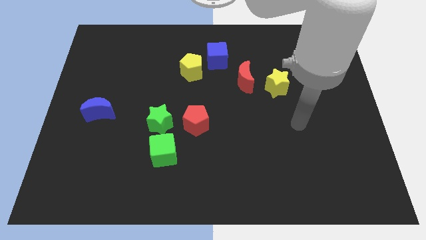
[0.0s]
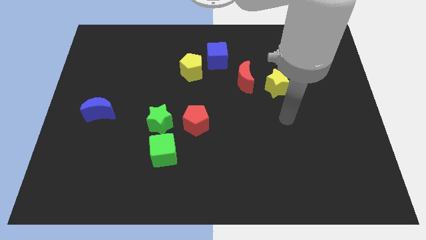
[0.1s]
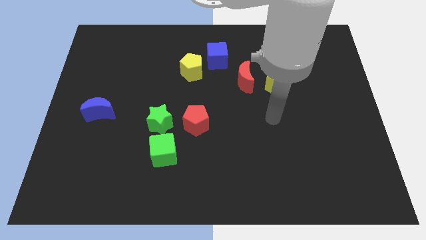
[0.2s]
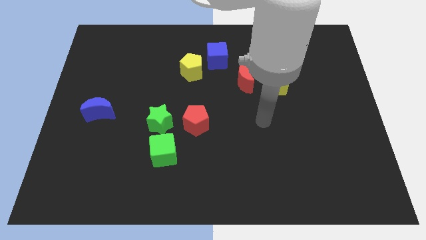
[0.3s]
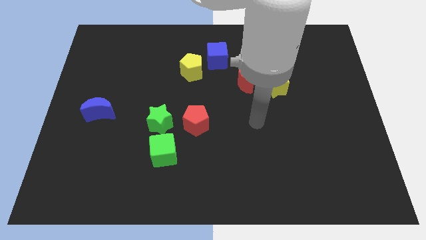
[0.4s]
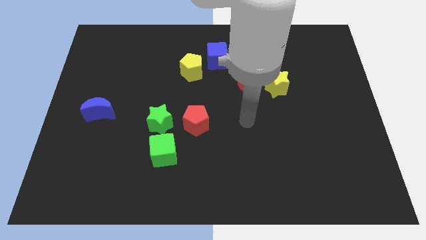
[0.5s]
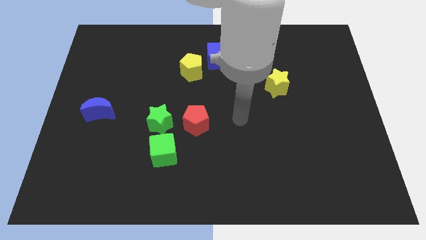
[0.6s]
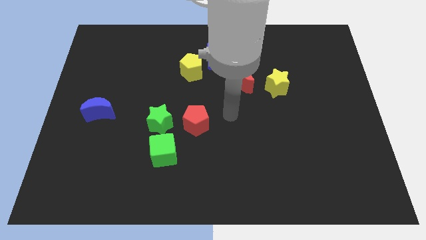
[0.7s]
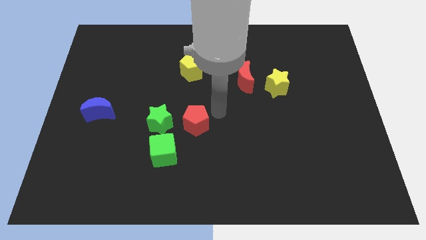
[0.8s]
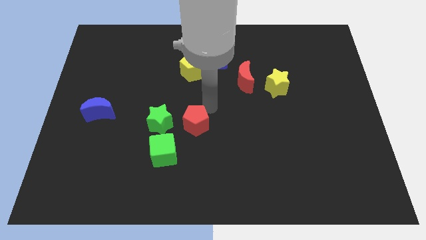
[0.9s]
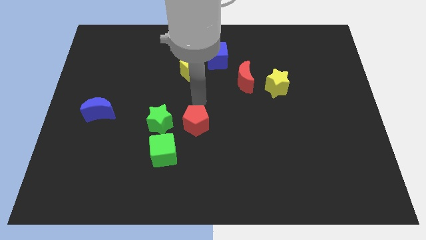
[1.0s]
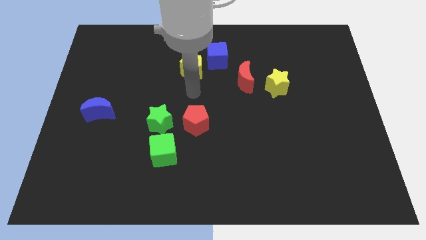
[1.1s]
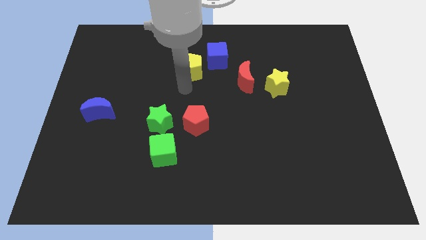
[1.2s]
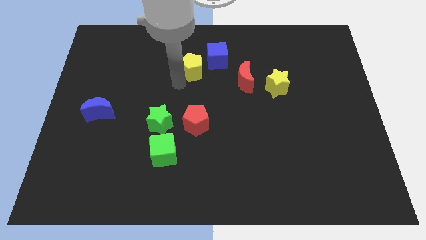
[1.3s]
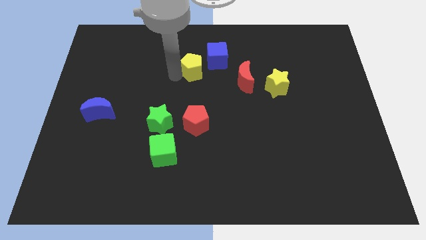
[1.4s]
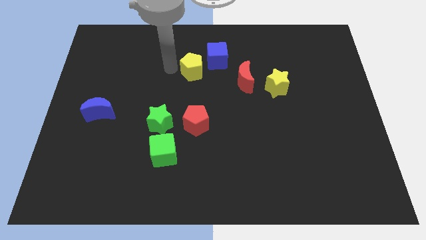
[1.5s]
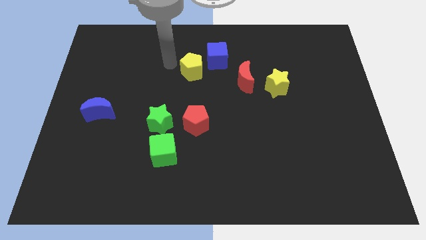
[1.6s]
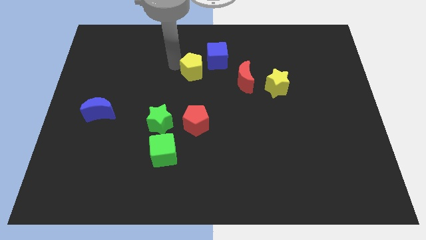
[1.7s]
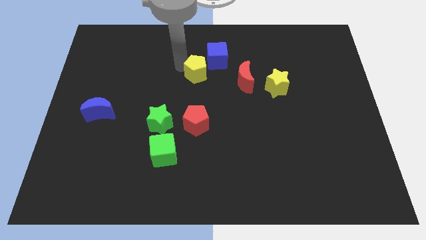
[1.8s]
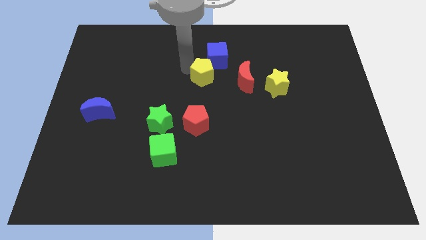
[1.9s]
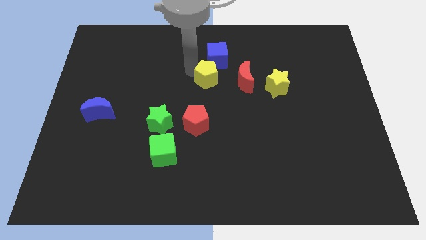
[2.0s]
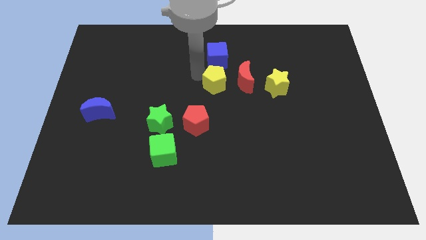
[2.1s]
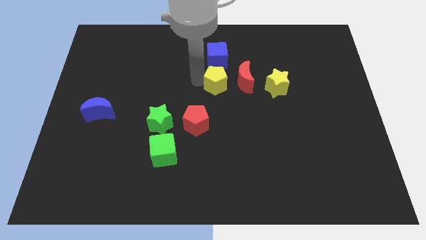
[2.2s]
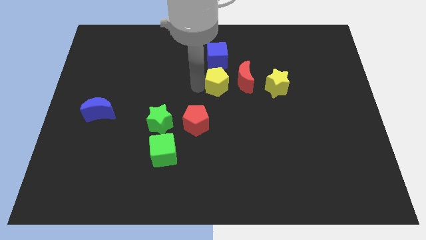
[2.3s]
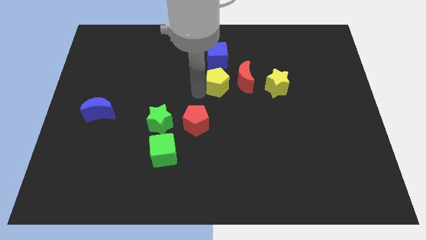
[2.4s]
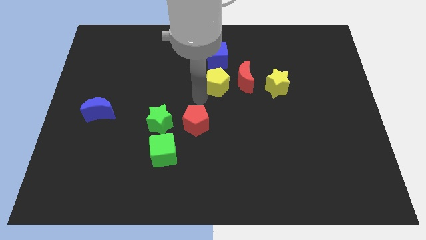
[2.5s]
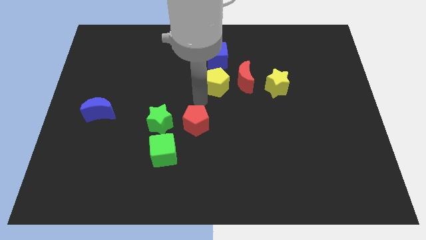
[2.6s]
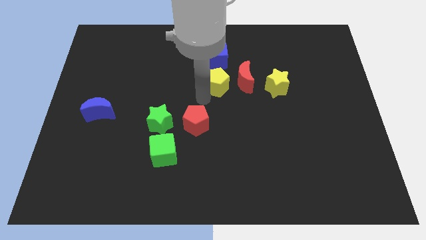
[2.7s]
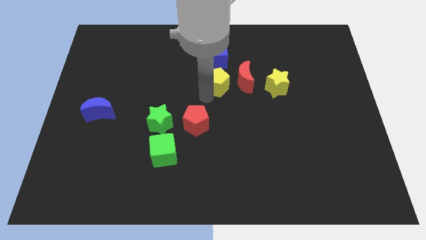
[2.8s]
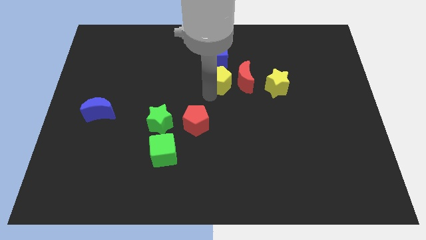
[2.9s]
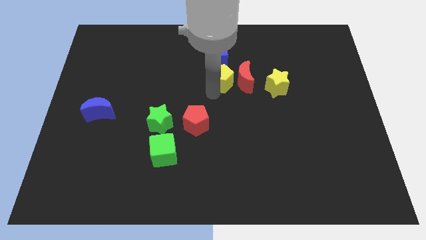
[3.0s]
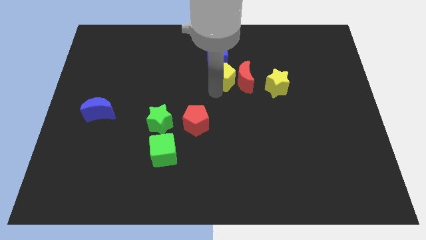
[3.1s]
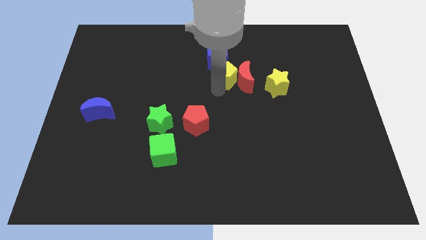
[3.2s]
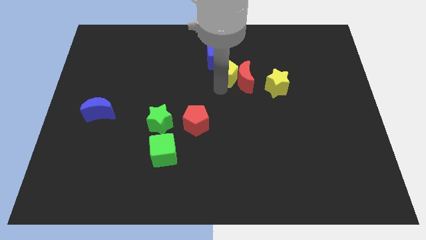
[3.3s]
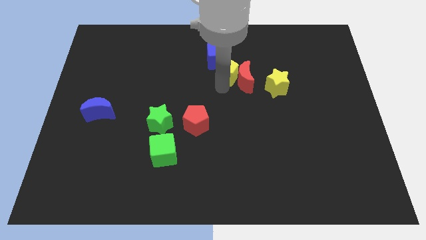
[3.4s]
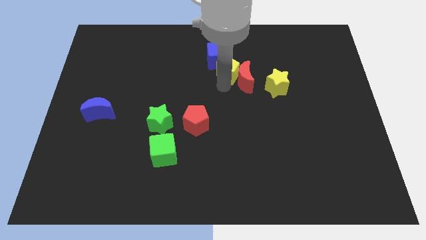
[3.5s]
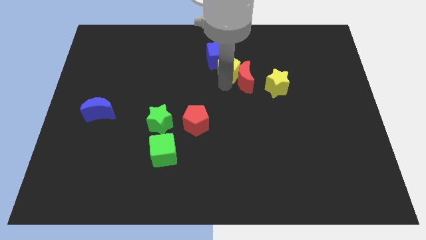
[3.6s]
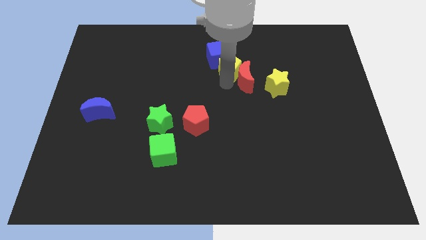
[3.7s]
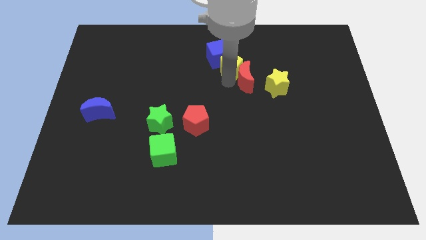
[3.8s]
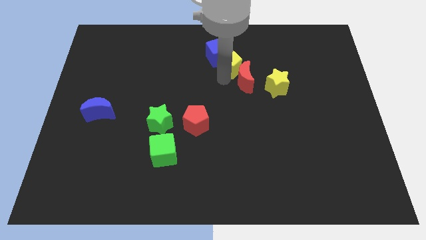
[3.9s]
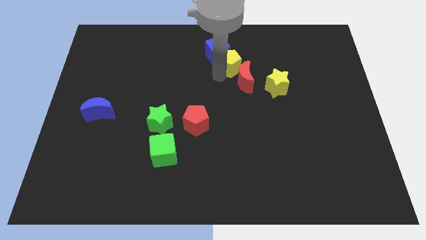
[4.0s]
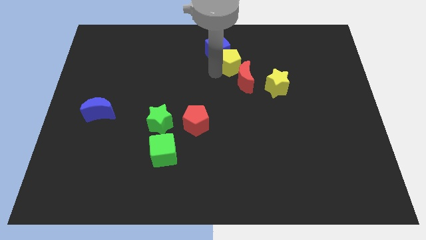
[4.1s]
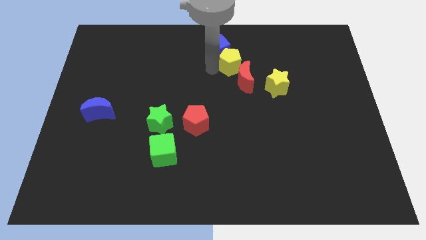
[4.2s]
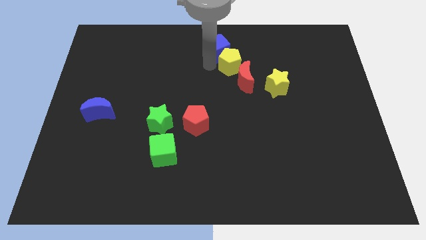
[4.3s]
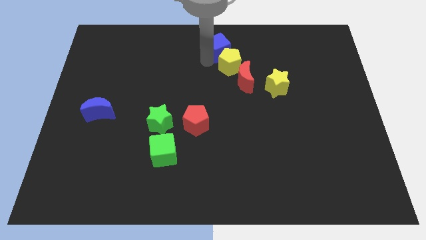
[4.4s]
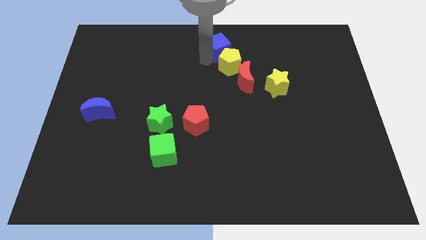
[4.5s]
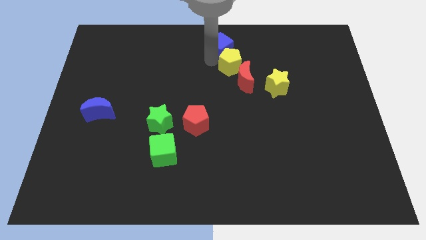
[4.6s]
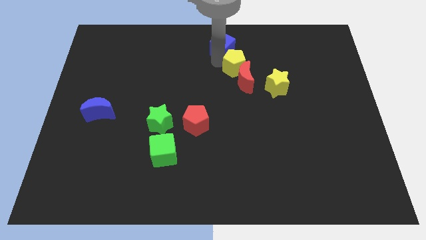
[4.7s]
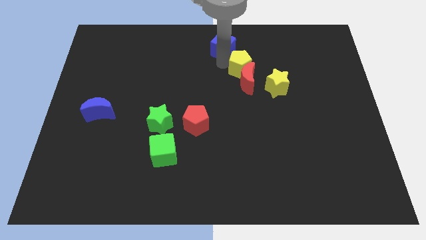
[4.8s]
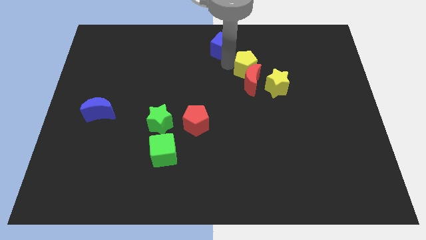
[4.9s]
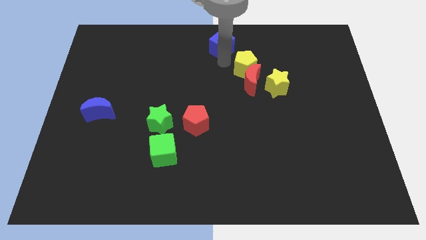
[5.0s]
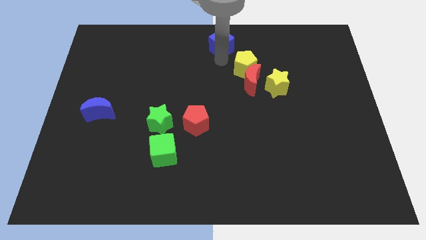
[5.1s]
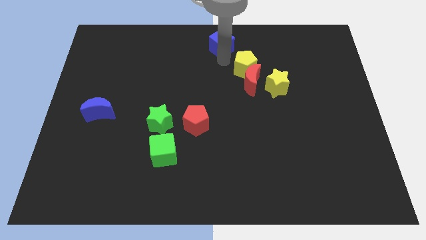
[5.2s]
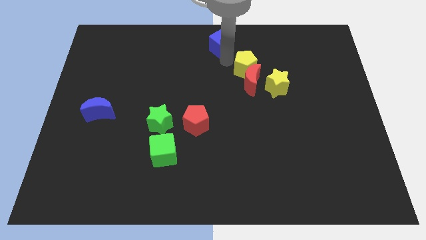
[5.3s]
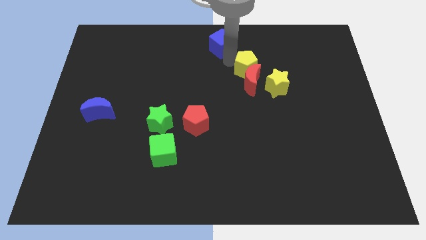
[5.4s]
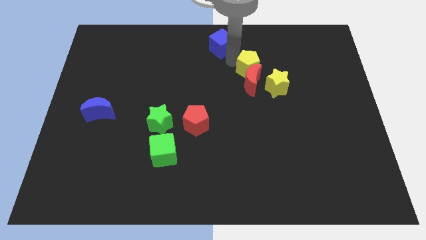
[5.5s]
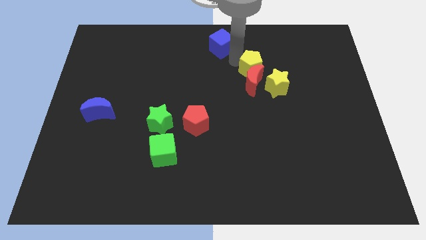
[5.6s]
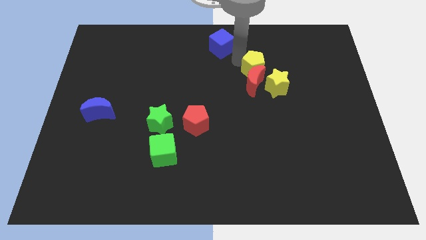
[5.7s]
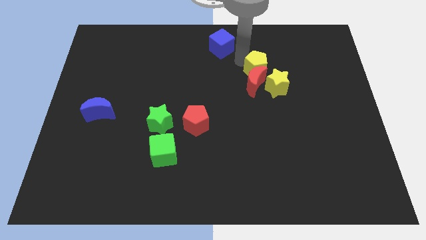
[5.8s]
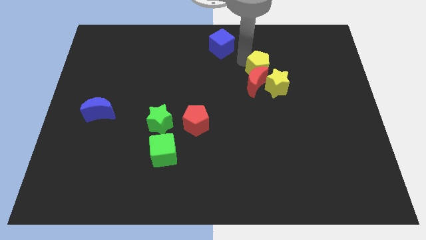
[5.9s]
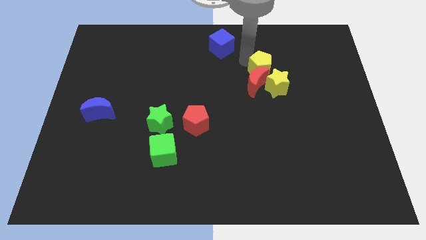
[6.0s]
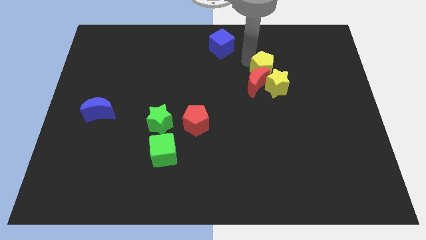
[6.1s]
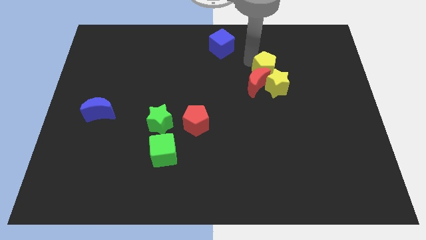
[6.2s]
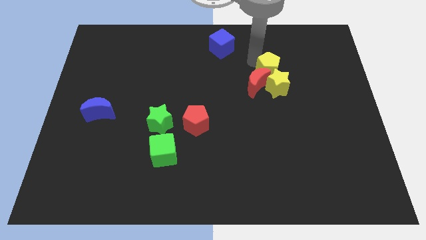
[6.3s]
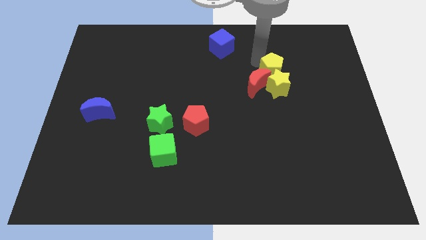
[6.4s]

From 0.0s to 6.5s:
slide the yellow pentagon right of the red moon

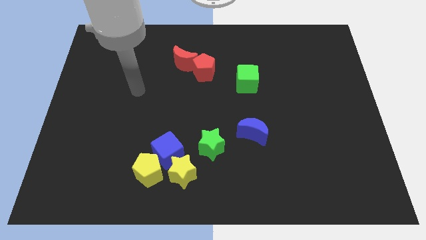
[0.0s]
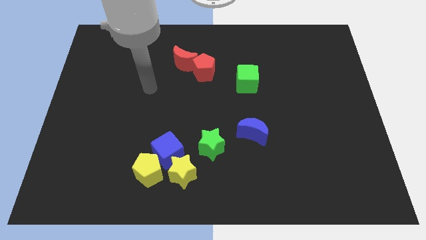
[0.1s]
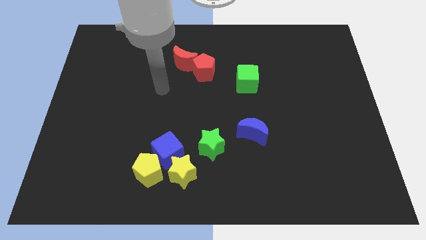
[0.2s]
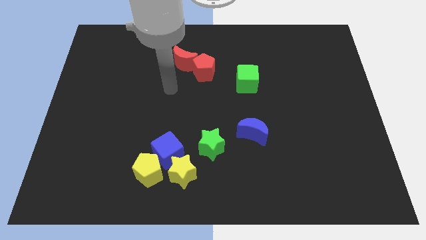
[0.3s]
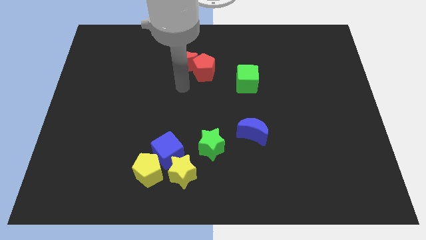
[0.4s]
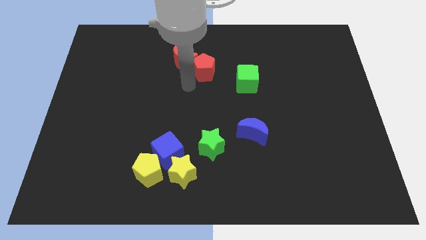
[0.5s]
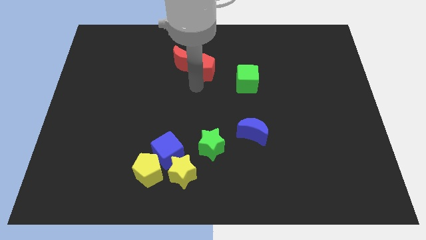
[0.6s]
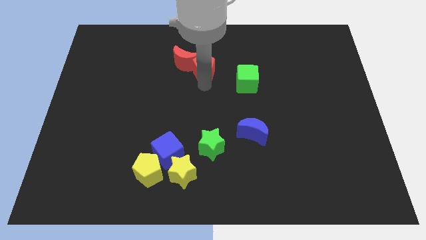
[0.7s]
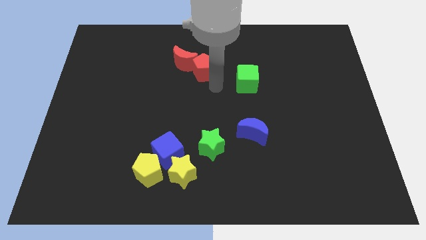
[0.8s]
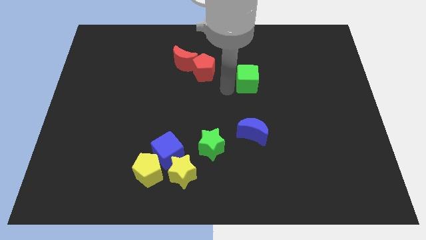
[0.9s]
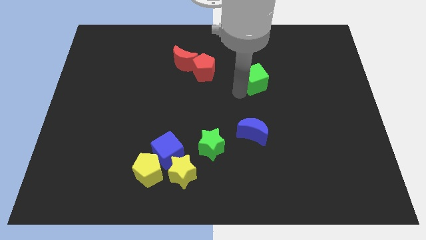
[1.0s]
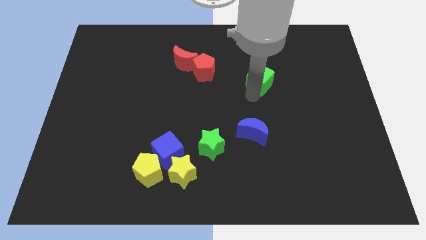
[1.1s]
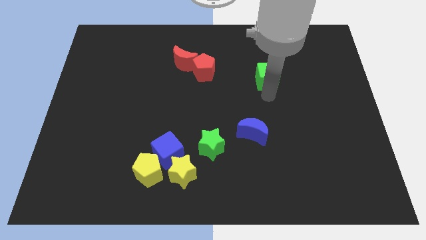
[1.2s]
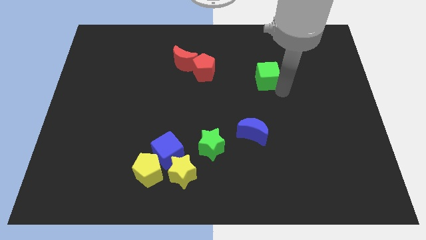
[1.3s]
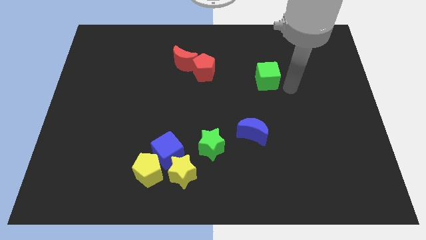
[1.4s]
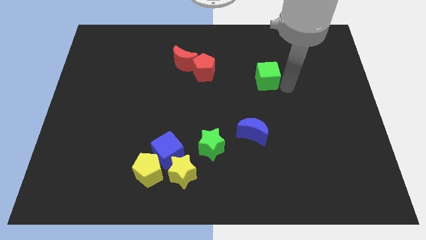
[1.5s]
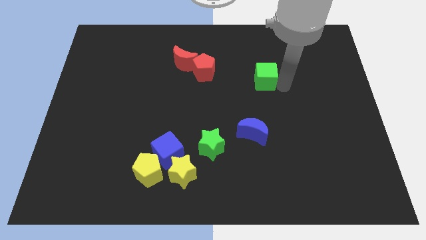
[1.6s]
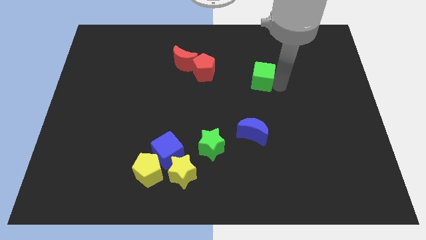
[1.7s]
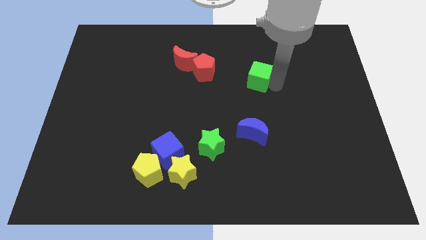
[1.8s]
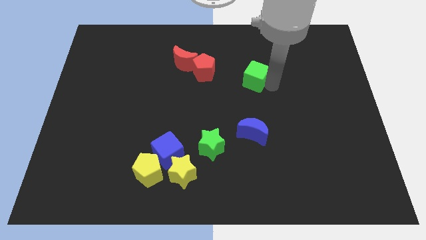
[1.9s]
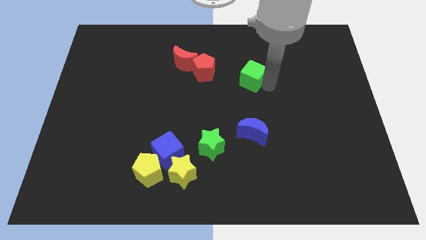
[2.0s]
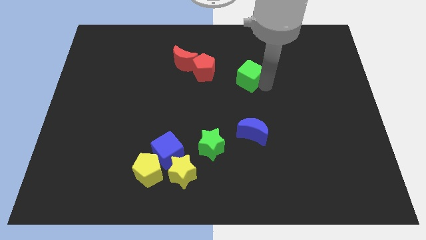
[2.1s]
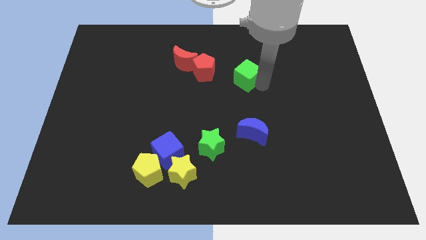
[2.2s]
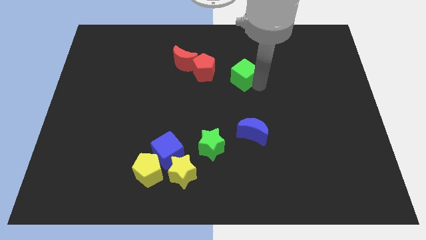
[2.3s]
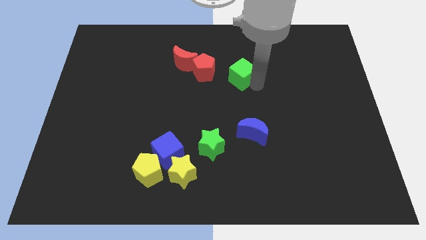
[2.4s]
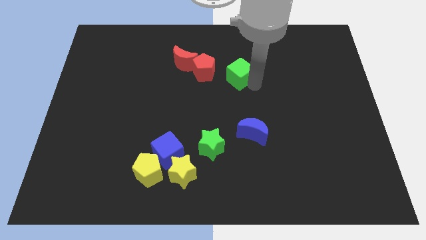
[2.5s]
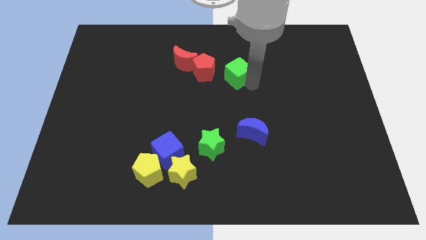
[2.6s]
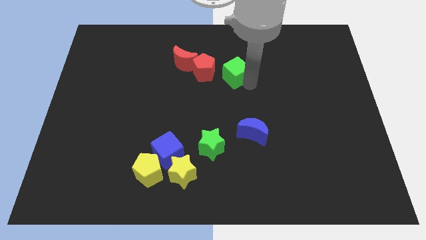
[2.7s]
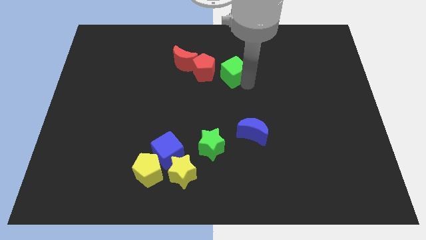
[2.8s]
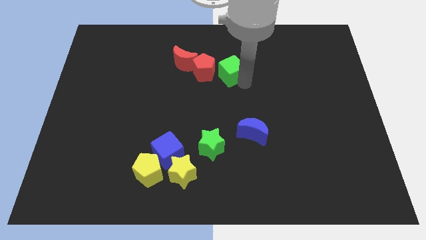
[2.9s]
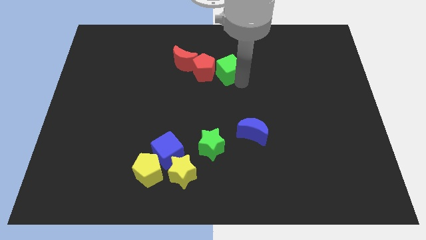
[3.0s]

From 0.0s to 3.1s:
move the green cube to the top right side of the red pentagon
